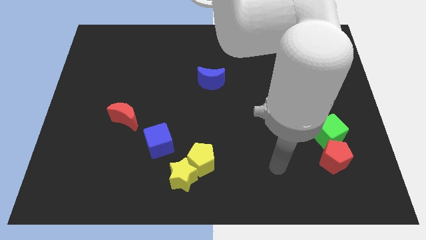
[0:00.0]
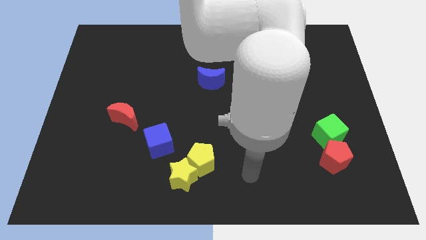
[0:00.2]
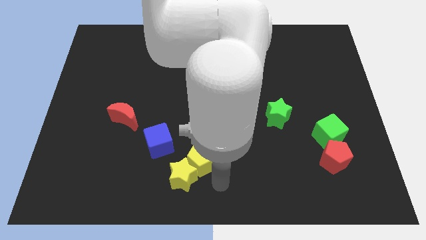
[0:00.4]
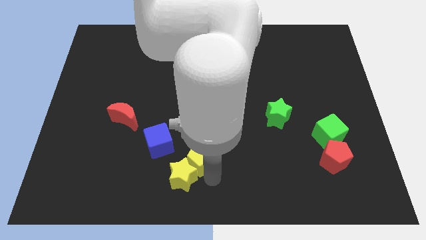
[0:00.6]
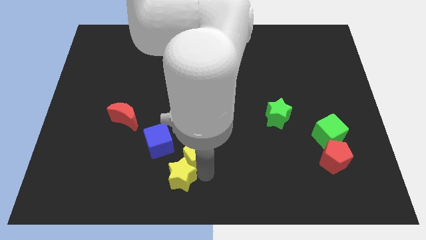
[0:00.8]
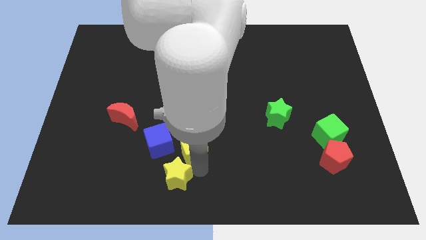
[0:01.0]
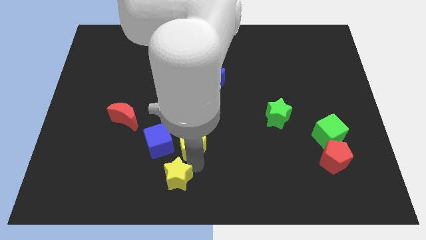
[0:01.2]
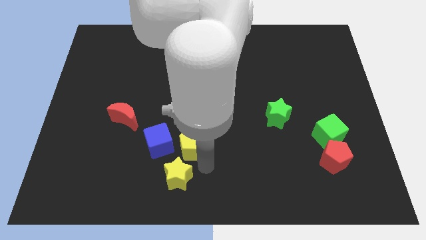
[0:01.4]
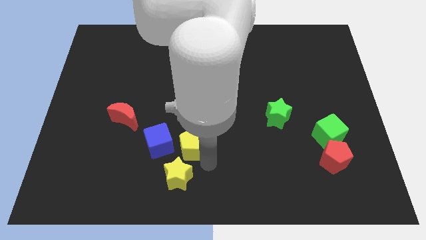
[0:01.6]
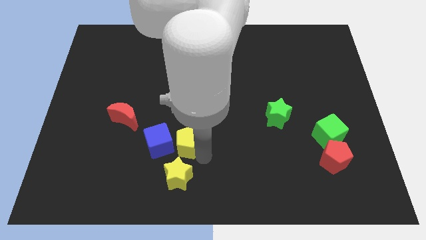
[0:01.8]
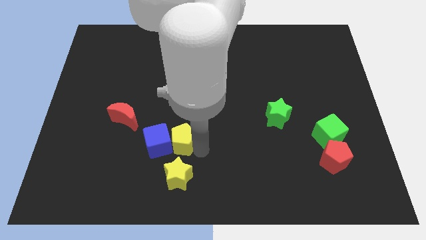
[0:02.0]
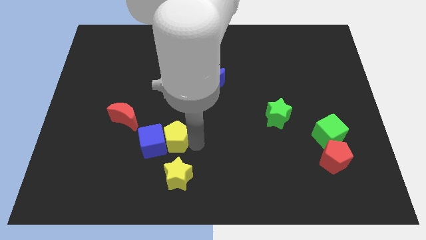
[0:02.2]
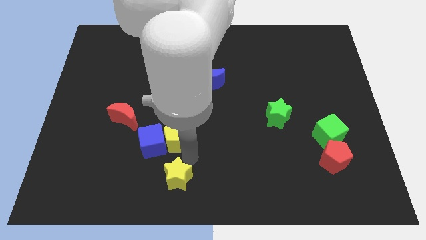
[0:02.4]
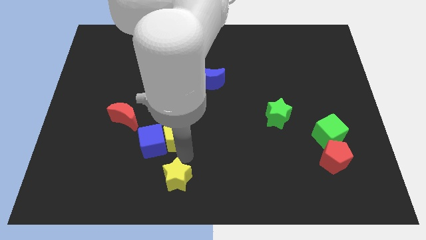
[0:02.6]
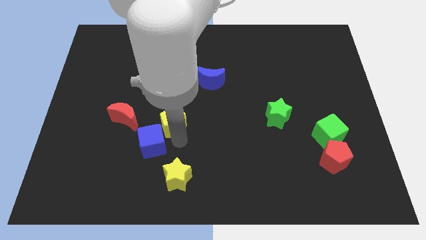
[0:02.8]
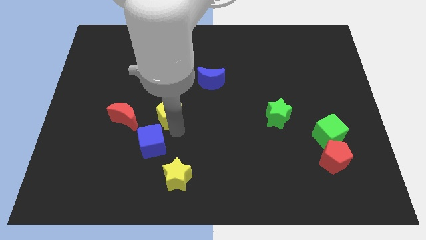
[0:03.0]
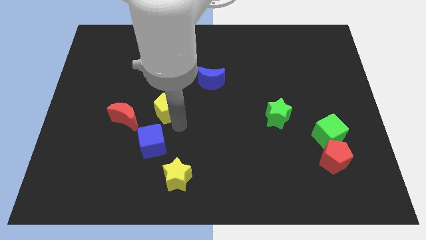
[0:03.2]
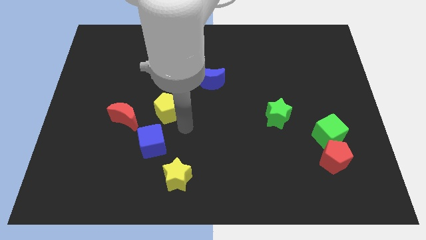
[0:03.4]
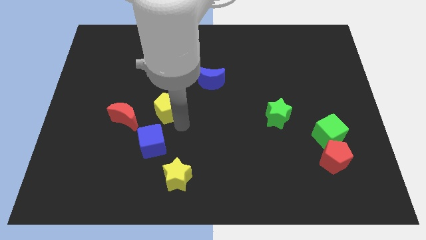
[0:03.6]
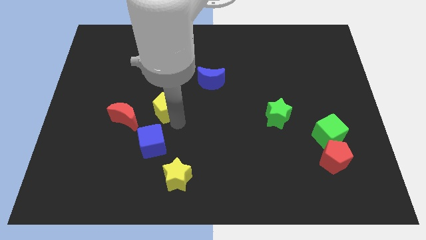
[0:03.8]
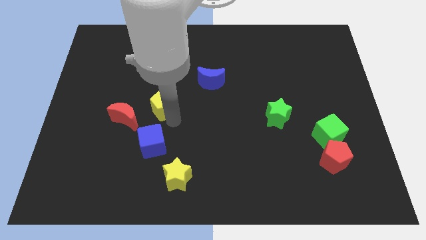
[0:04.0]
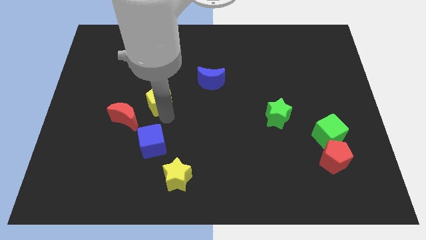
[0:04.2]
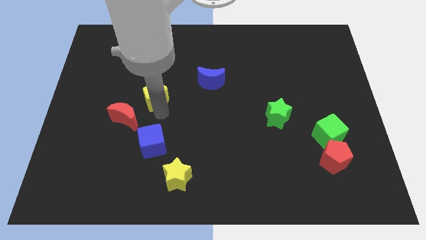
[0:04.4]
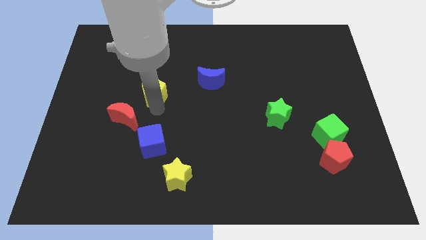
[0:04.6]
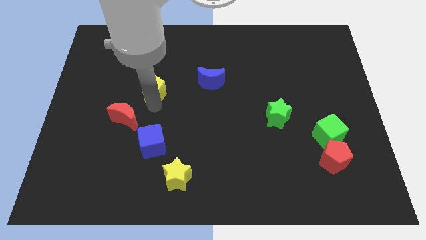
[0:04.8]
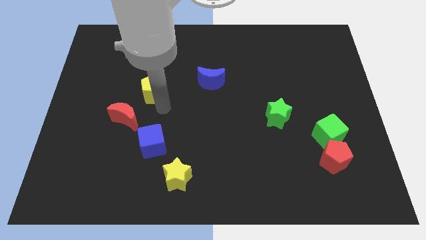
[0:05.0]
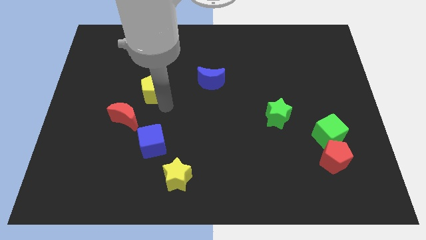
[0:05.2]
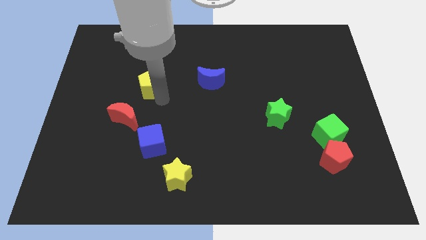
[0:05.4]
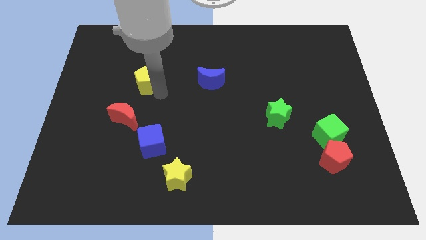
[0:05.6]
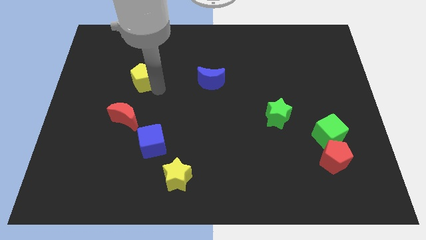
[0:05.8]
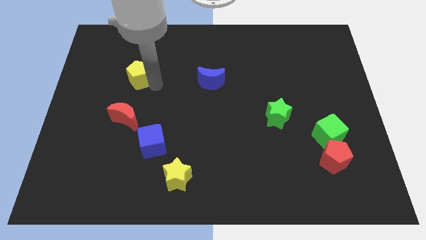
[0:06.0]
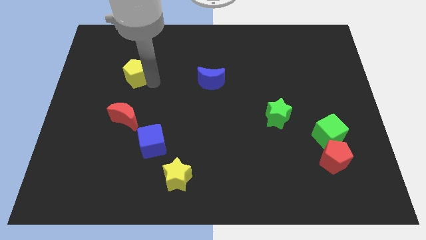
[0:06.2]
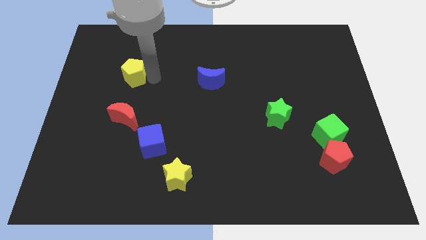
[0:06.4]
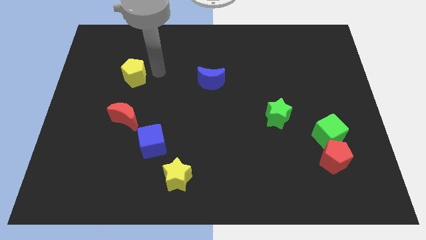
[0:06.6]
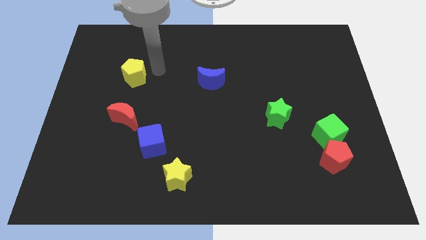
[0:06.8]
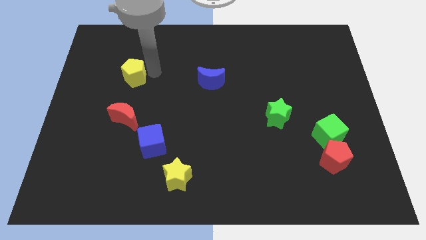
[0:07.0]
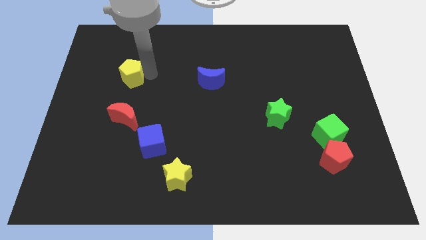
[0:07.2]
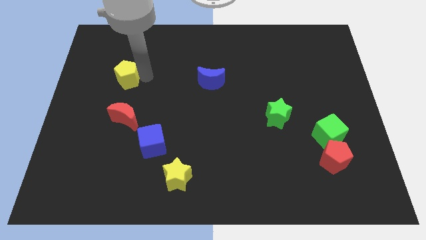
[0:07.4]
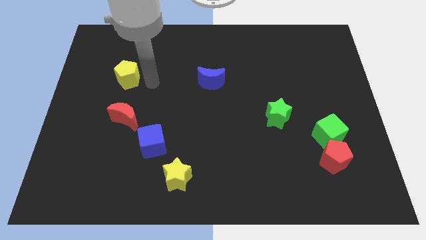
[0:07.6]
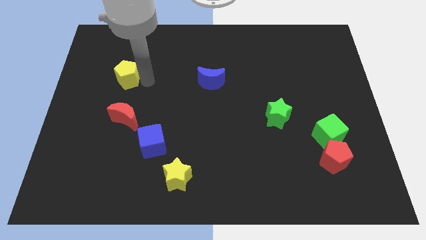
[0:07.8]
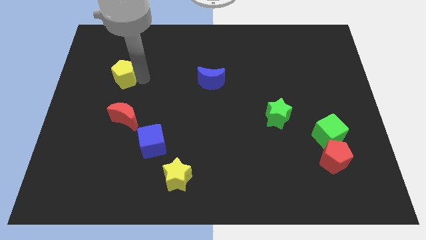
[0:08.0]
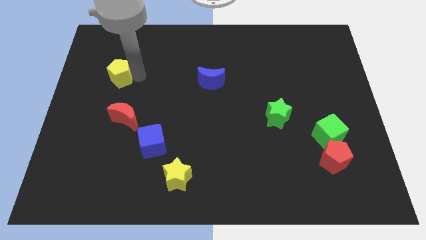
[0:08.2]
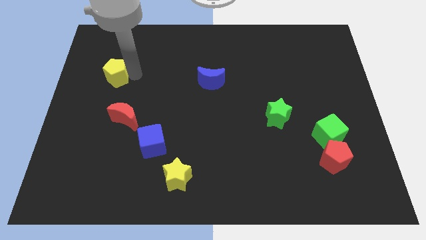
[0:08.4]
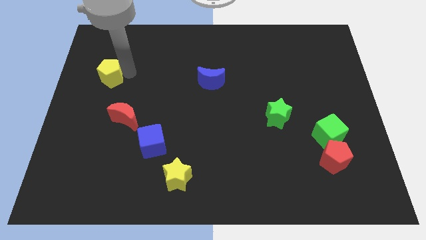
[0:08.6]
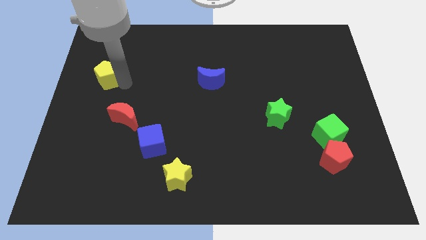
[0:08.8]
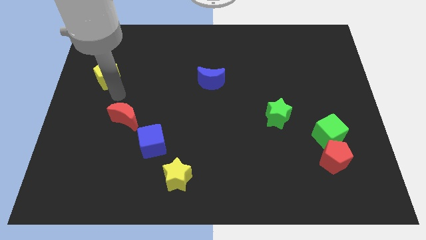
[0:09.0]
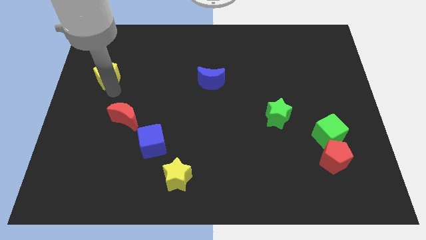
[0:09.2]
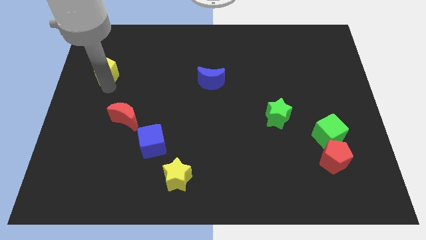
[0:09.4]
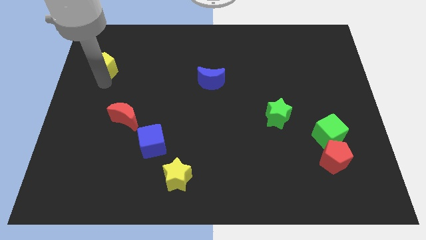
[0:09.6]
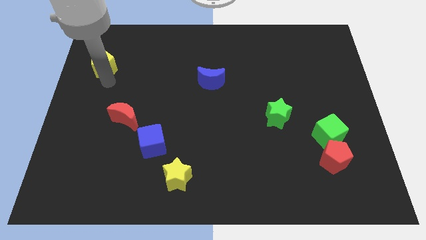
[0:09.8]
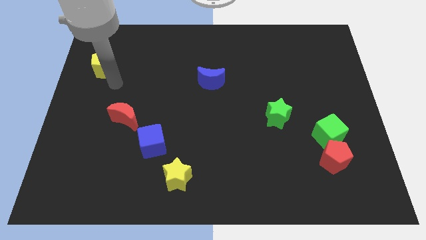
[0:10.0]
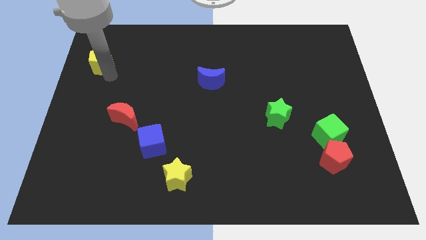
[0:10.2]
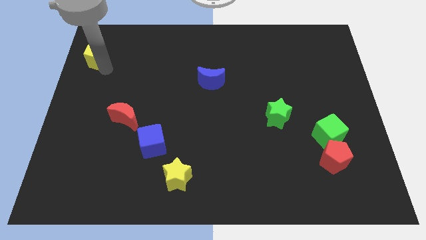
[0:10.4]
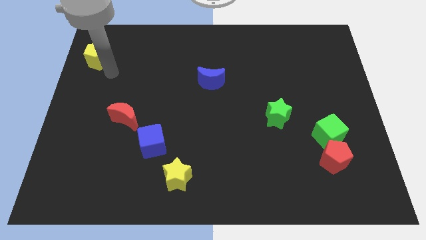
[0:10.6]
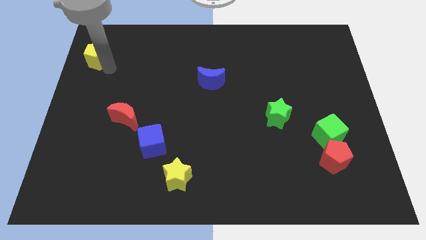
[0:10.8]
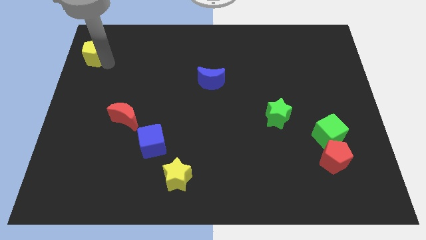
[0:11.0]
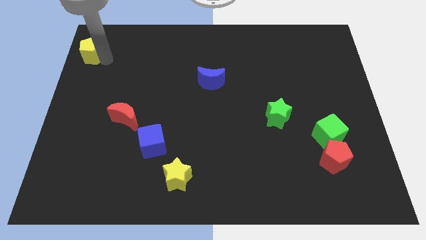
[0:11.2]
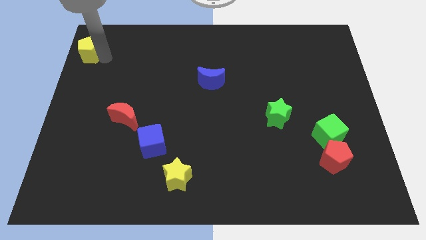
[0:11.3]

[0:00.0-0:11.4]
put the yellow pentagon to the top left

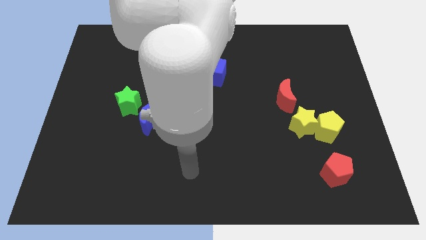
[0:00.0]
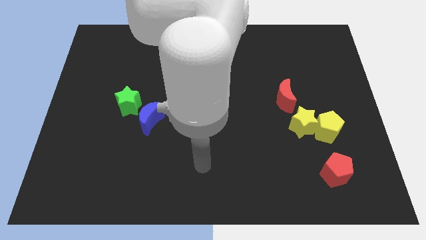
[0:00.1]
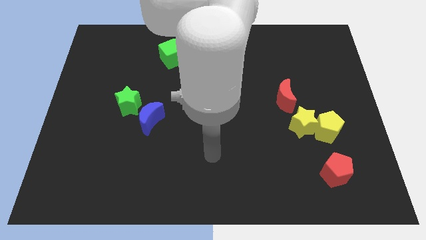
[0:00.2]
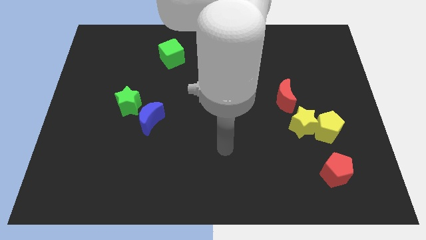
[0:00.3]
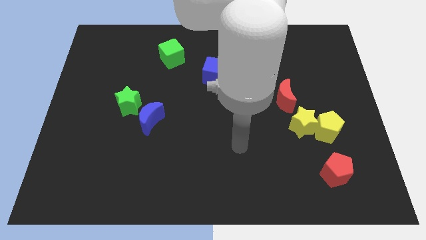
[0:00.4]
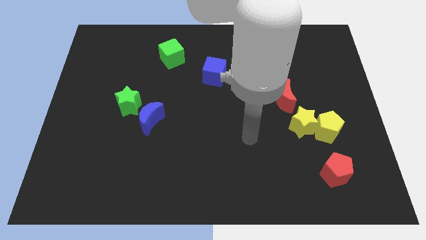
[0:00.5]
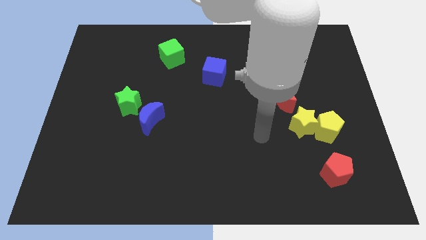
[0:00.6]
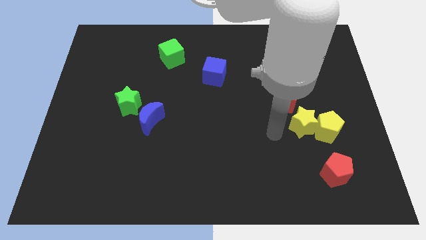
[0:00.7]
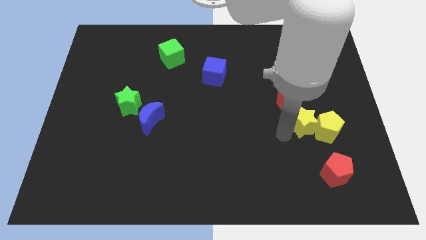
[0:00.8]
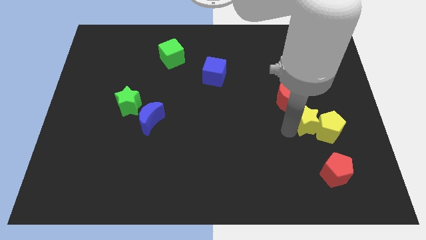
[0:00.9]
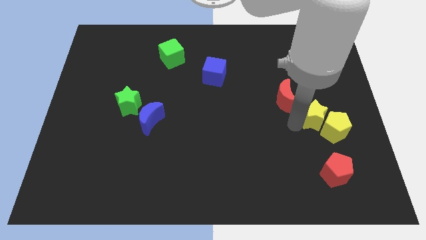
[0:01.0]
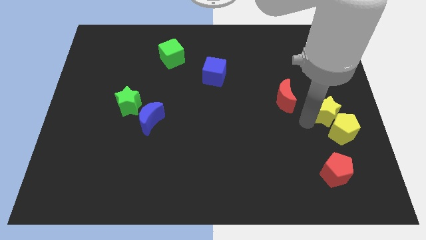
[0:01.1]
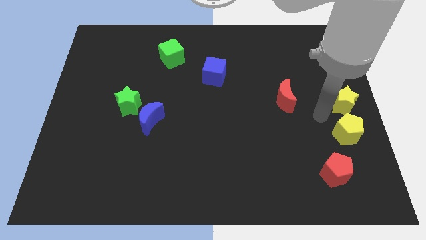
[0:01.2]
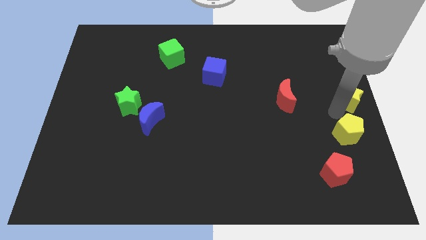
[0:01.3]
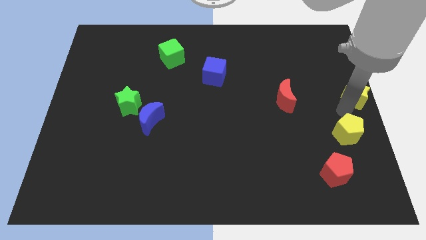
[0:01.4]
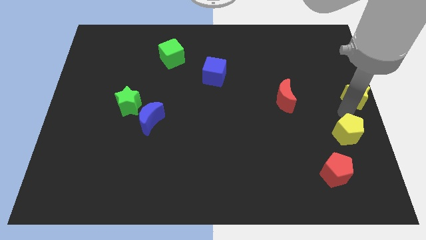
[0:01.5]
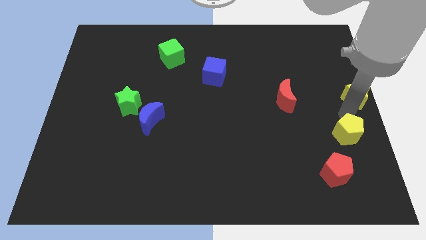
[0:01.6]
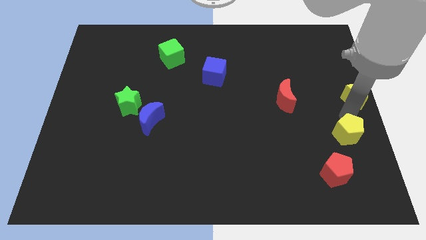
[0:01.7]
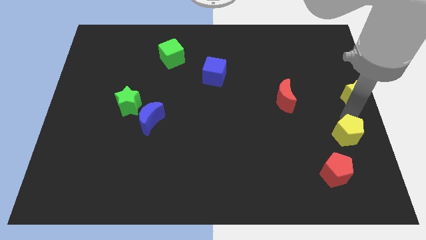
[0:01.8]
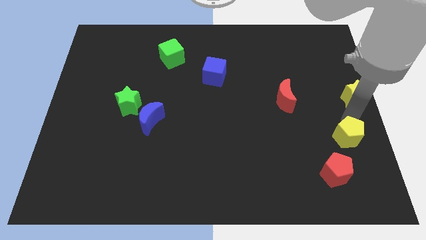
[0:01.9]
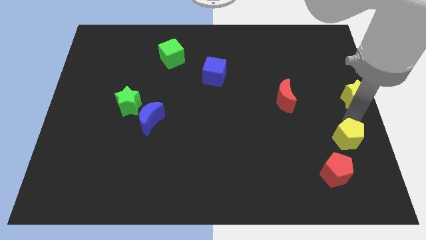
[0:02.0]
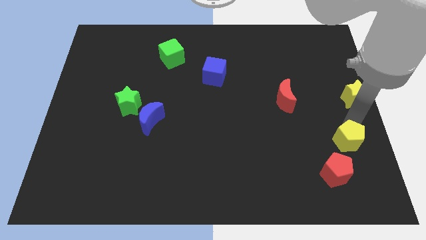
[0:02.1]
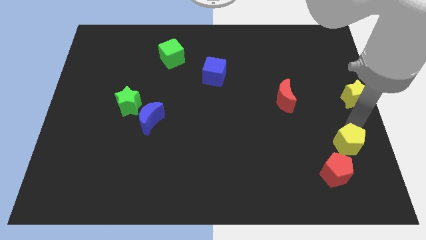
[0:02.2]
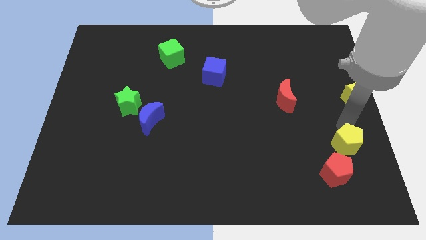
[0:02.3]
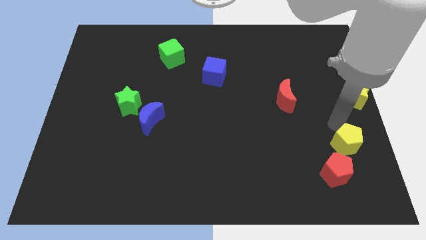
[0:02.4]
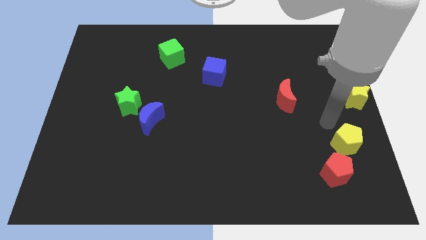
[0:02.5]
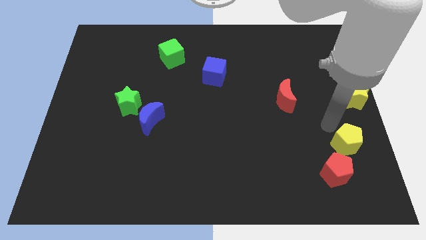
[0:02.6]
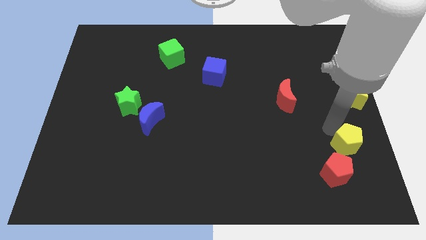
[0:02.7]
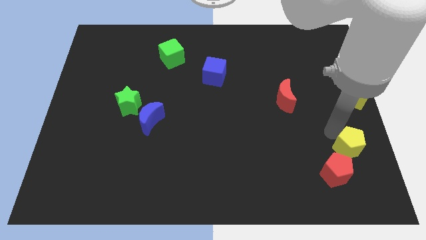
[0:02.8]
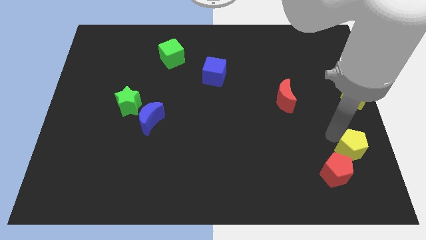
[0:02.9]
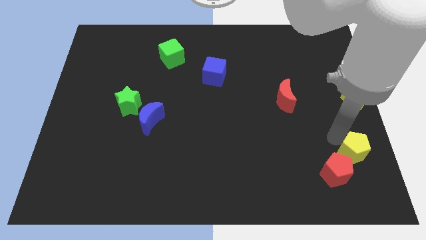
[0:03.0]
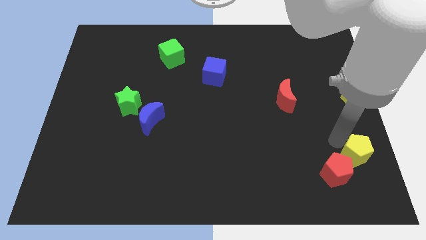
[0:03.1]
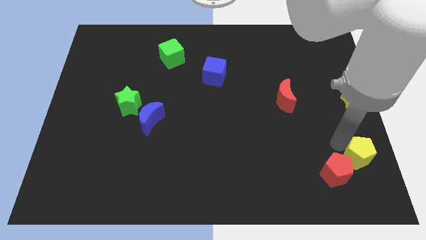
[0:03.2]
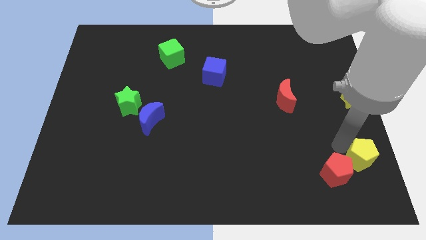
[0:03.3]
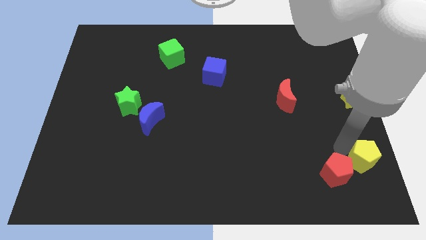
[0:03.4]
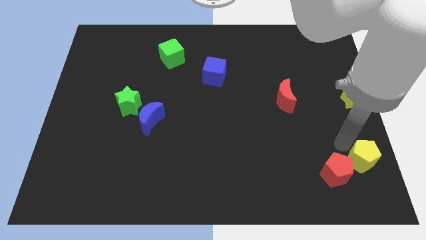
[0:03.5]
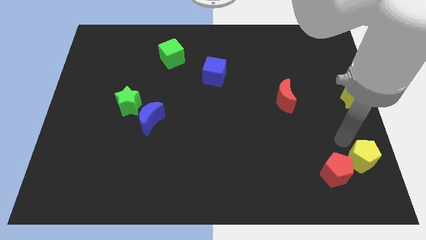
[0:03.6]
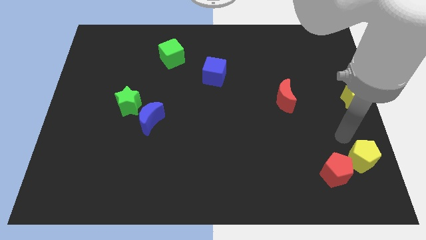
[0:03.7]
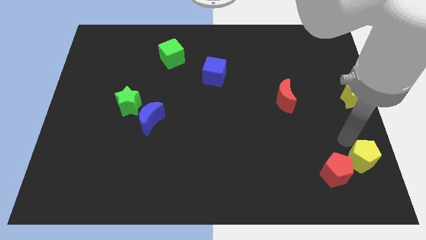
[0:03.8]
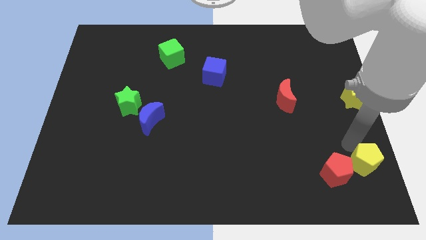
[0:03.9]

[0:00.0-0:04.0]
push the yellow pentagon to the bottom right corner
